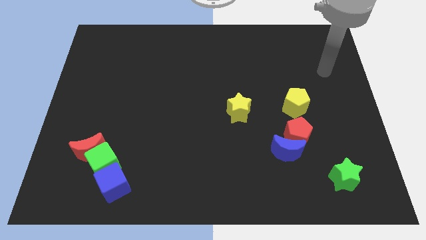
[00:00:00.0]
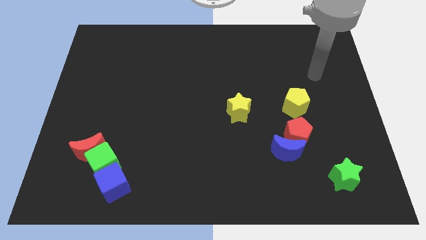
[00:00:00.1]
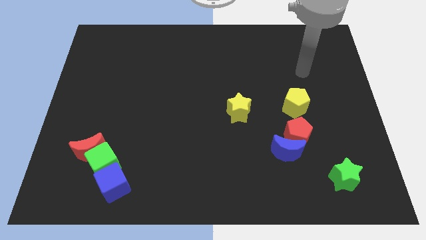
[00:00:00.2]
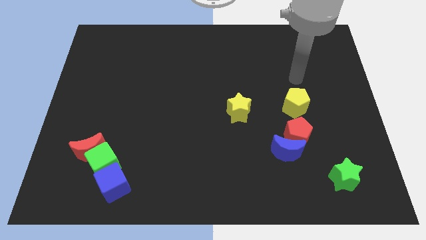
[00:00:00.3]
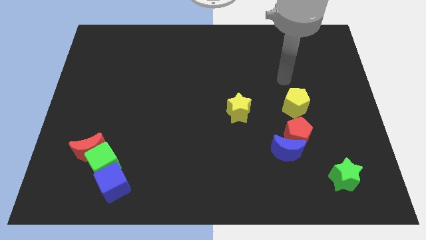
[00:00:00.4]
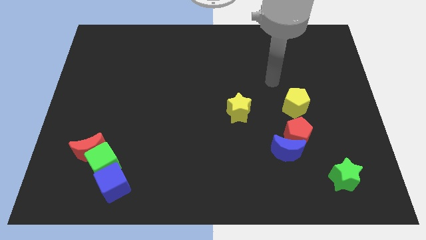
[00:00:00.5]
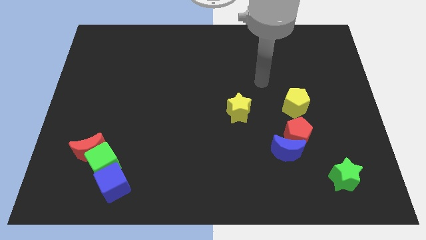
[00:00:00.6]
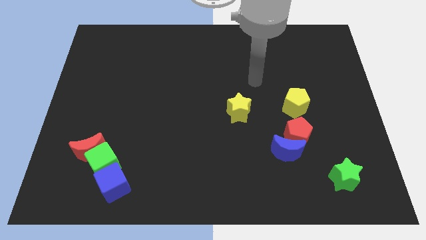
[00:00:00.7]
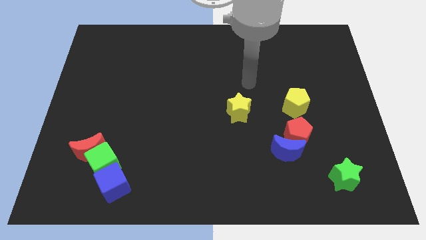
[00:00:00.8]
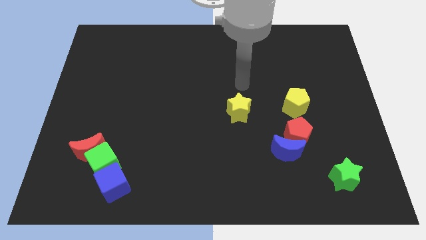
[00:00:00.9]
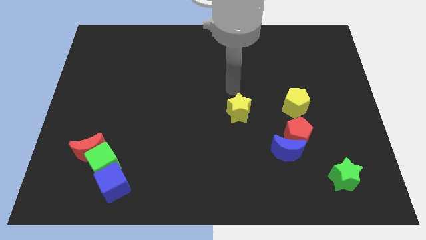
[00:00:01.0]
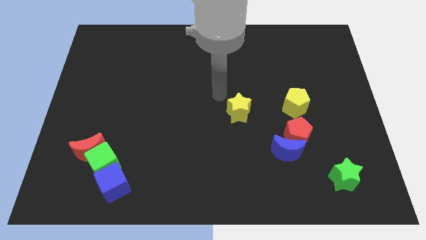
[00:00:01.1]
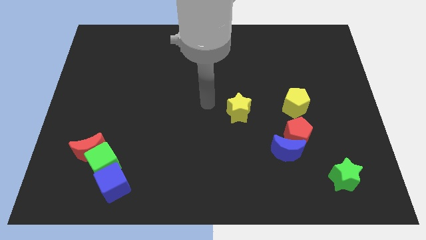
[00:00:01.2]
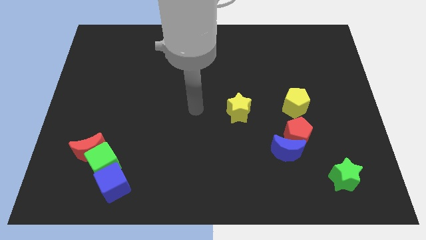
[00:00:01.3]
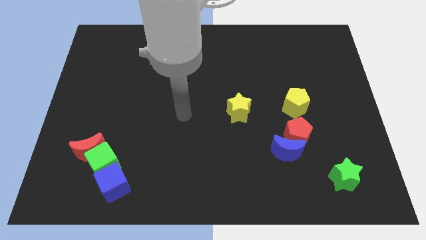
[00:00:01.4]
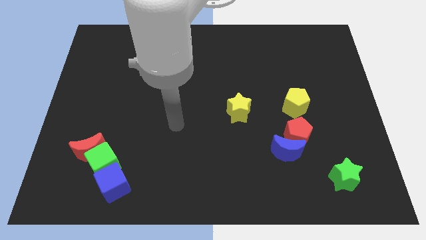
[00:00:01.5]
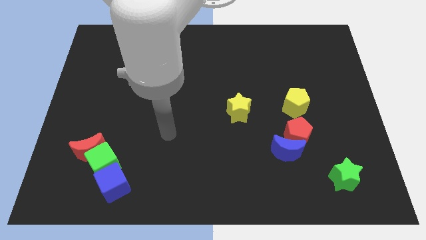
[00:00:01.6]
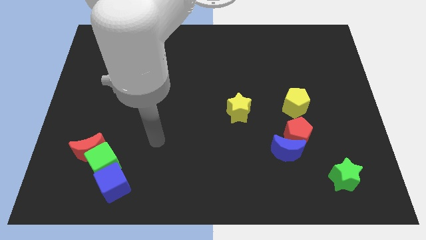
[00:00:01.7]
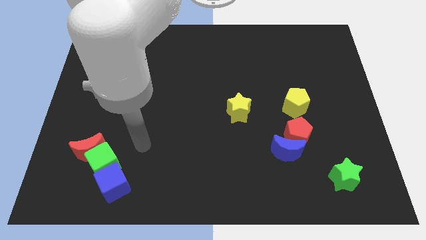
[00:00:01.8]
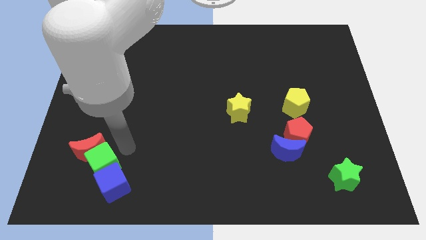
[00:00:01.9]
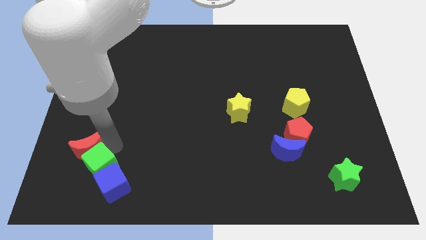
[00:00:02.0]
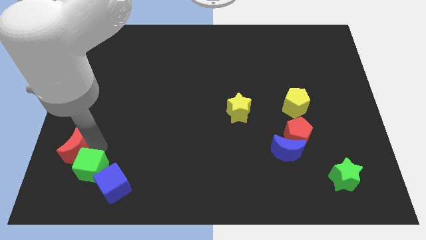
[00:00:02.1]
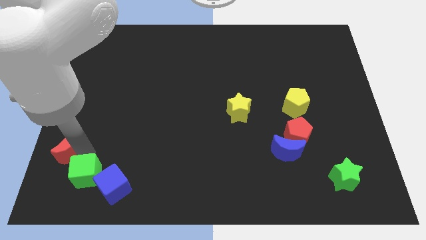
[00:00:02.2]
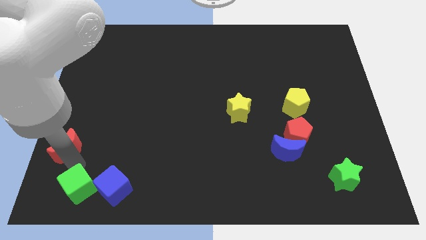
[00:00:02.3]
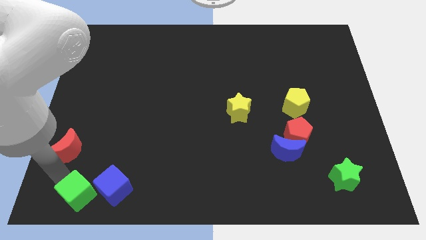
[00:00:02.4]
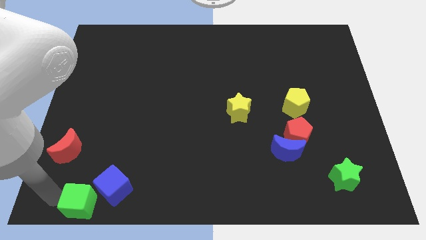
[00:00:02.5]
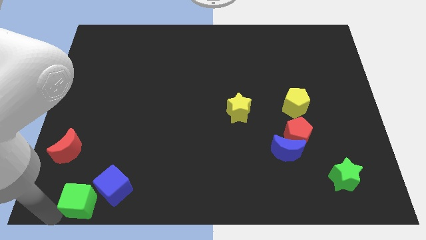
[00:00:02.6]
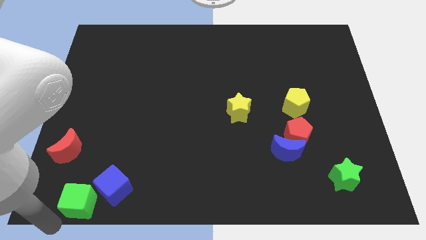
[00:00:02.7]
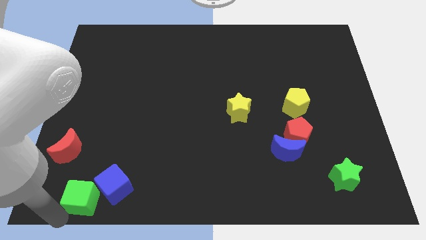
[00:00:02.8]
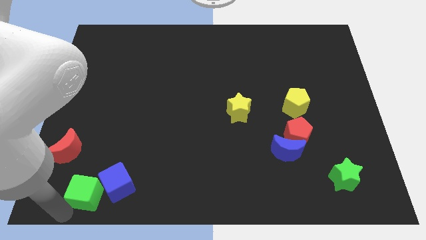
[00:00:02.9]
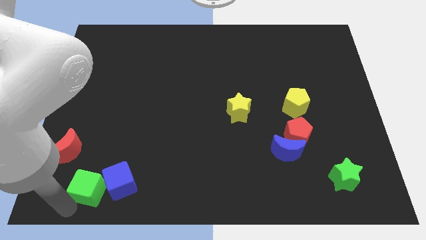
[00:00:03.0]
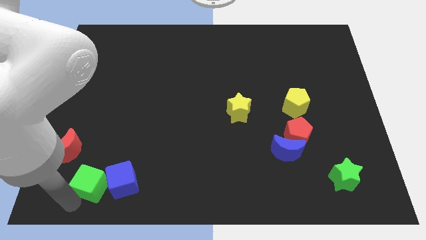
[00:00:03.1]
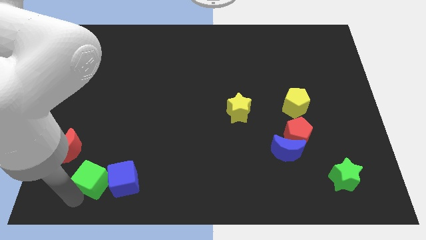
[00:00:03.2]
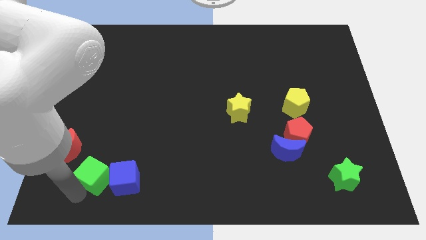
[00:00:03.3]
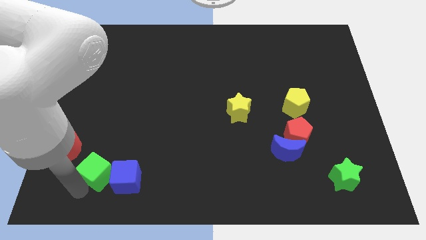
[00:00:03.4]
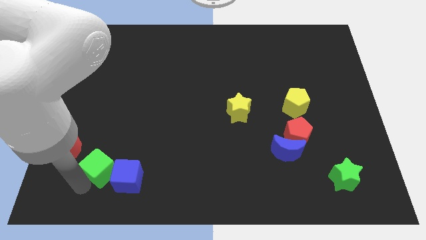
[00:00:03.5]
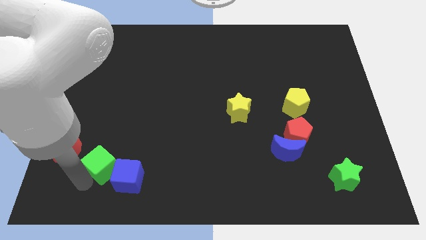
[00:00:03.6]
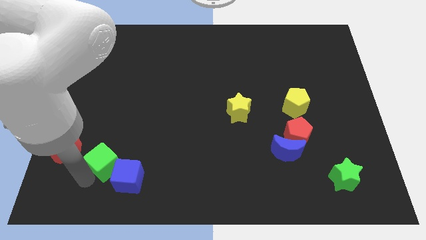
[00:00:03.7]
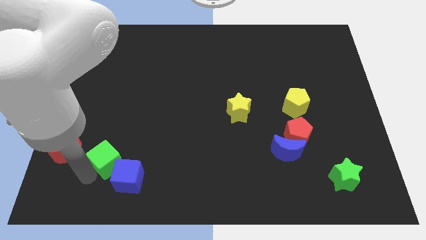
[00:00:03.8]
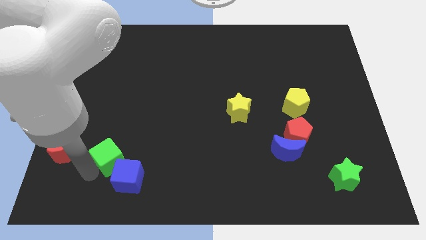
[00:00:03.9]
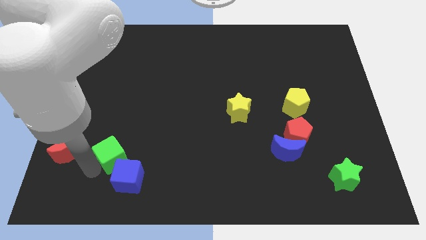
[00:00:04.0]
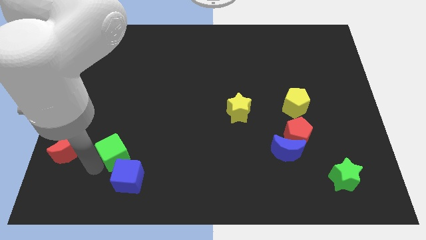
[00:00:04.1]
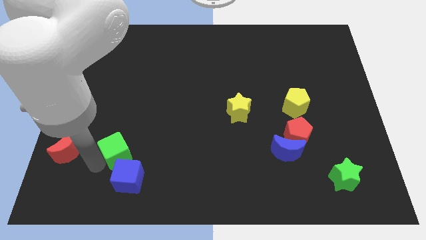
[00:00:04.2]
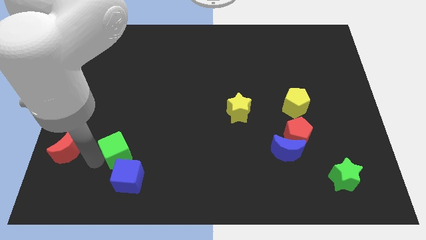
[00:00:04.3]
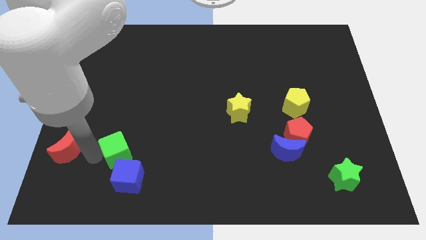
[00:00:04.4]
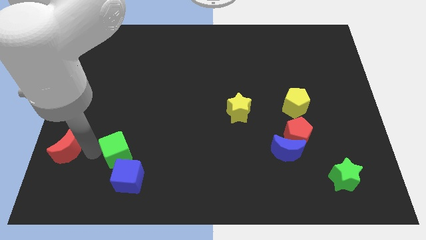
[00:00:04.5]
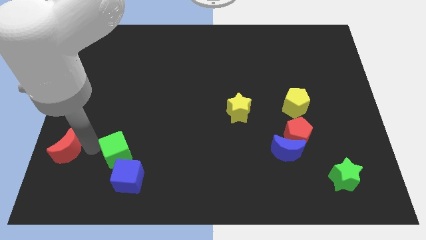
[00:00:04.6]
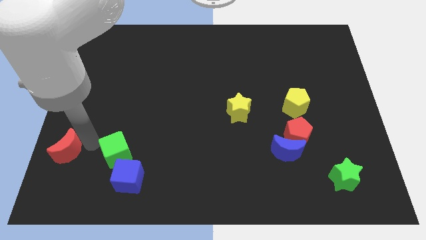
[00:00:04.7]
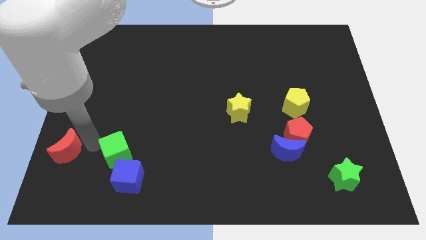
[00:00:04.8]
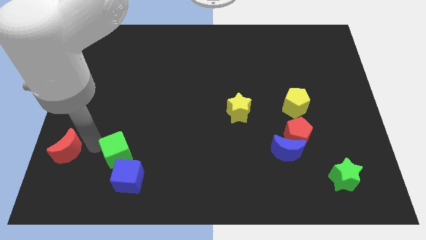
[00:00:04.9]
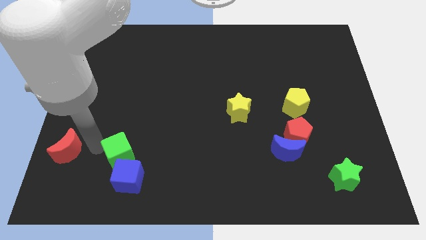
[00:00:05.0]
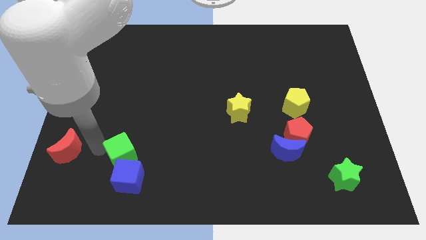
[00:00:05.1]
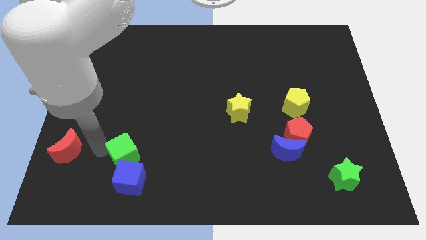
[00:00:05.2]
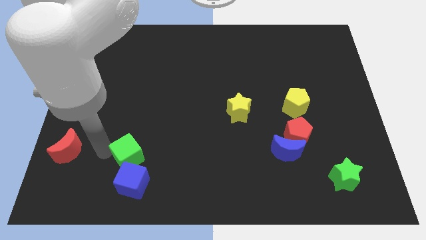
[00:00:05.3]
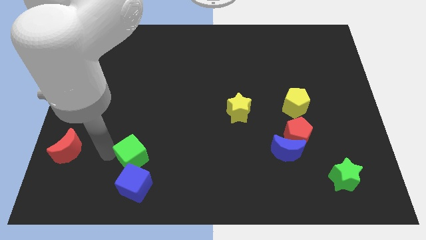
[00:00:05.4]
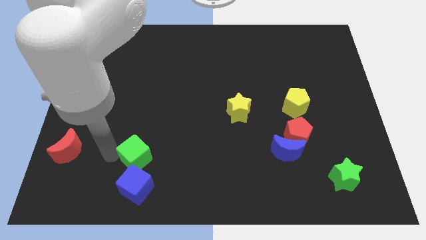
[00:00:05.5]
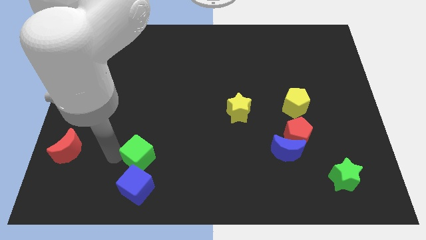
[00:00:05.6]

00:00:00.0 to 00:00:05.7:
move the green cube a little bit right

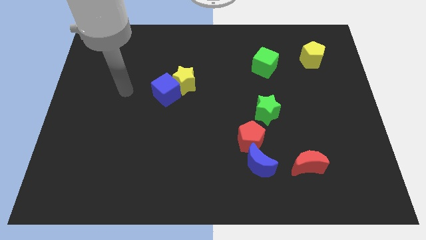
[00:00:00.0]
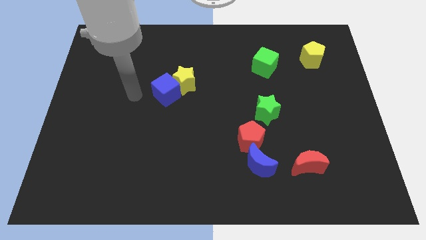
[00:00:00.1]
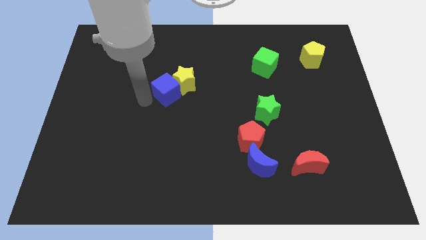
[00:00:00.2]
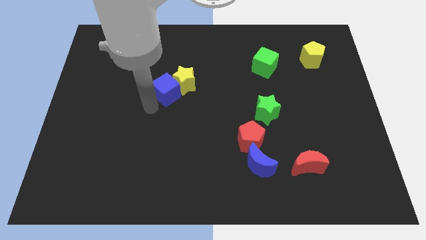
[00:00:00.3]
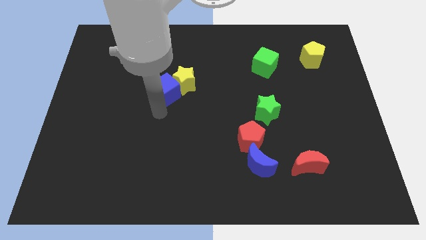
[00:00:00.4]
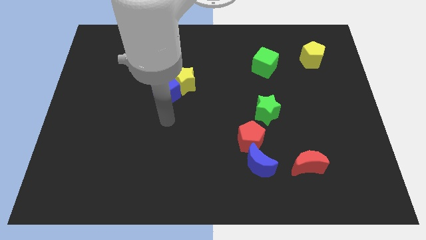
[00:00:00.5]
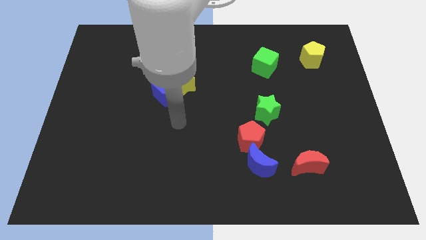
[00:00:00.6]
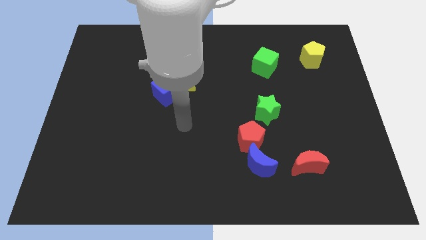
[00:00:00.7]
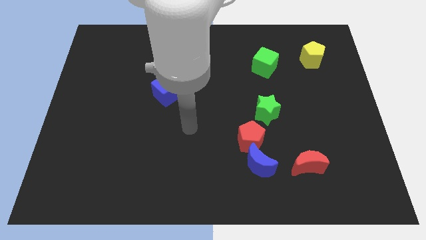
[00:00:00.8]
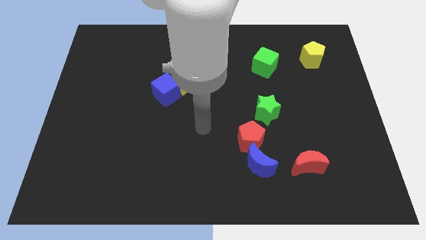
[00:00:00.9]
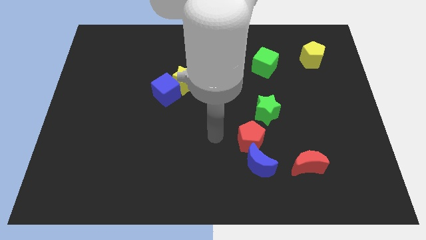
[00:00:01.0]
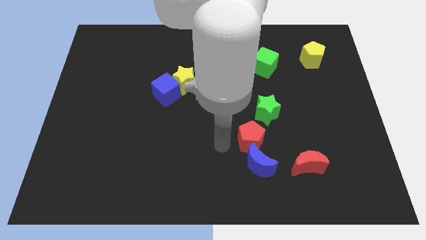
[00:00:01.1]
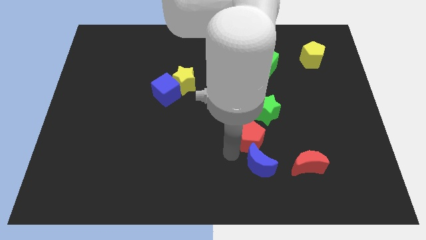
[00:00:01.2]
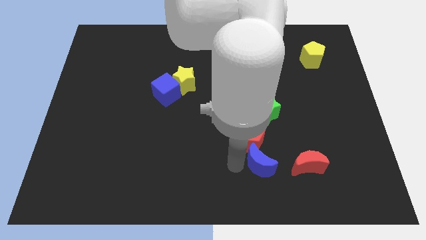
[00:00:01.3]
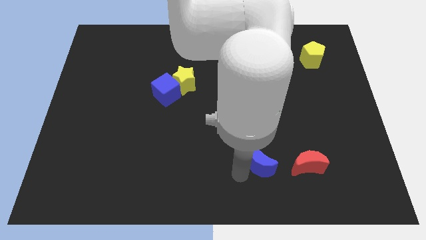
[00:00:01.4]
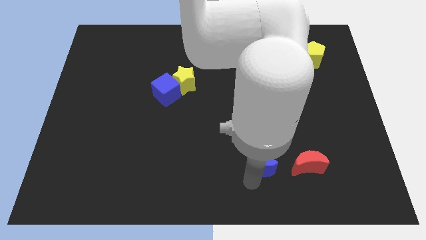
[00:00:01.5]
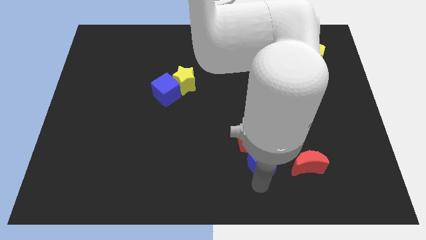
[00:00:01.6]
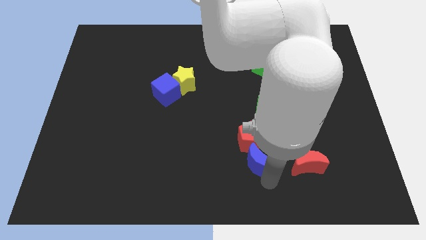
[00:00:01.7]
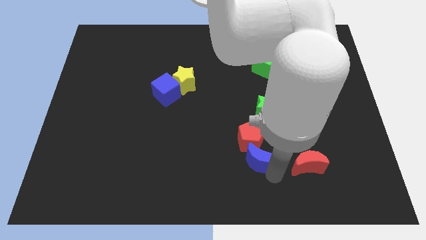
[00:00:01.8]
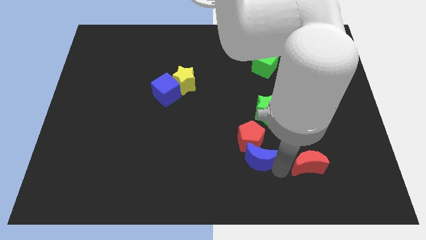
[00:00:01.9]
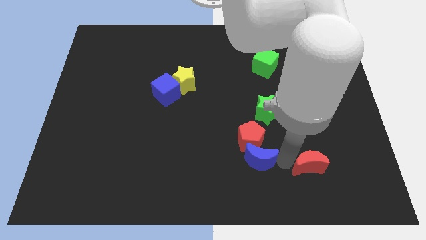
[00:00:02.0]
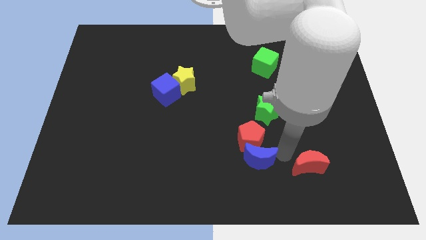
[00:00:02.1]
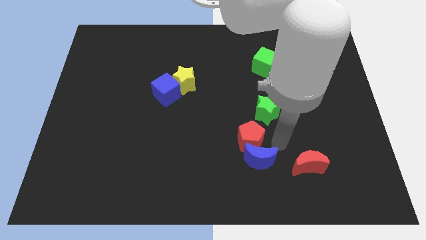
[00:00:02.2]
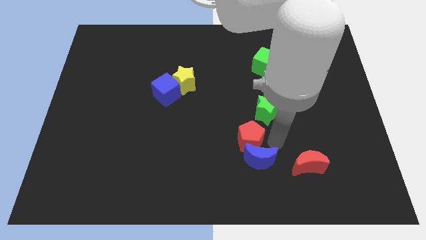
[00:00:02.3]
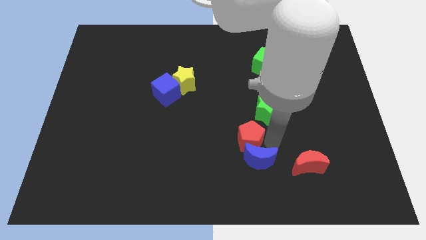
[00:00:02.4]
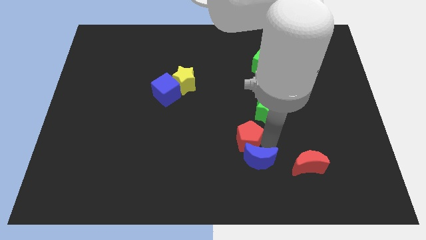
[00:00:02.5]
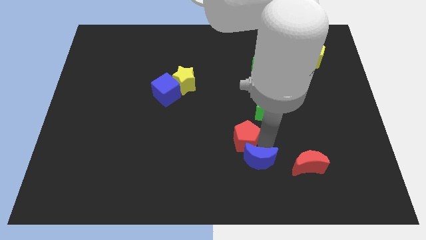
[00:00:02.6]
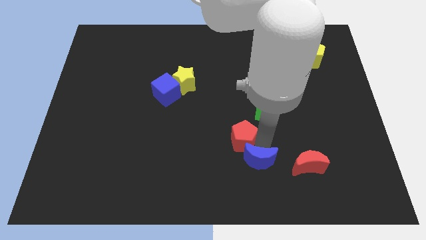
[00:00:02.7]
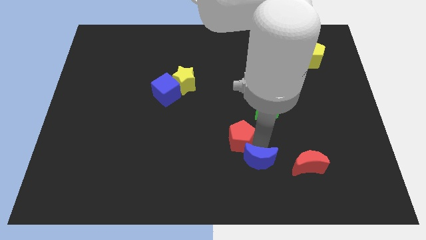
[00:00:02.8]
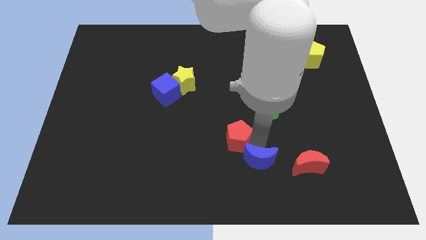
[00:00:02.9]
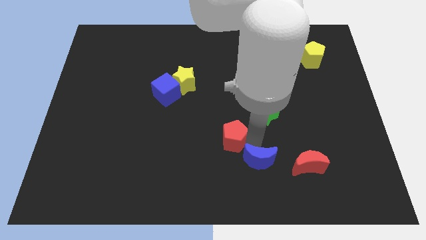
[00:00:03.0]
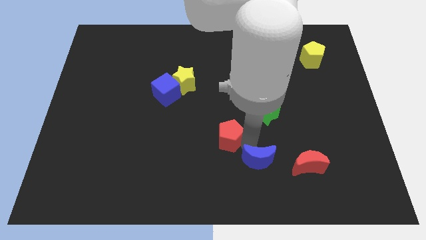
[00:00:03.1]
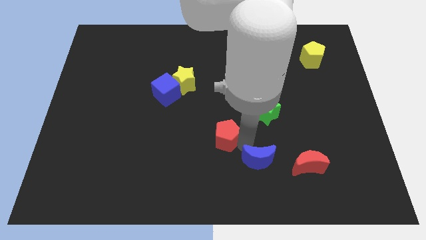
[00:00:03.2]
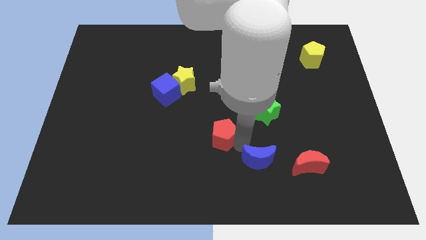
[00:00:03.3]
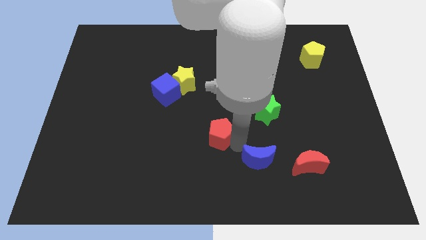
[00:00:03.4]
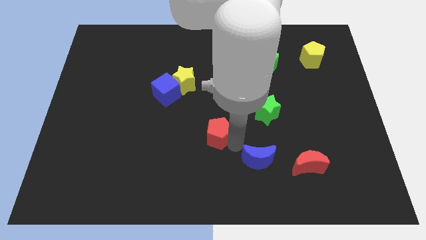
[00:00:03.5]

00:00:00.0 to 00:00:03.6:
slide the red pentagon to the left a bit
